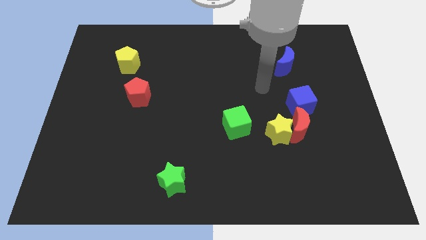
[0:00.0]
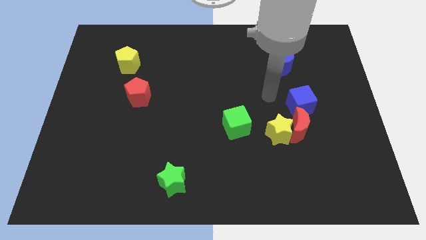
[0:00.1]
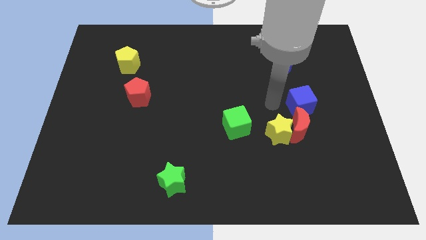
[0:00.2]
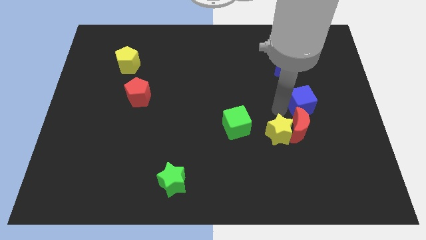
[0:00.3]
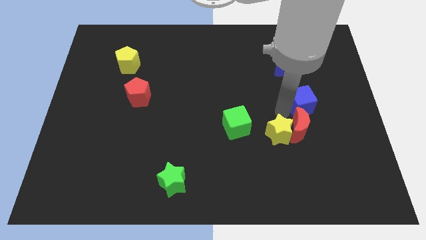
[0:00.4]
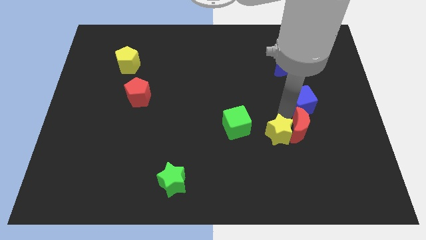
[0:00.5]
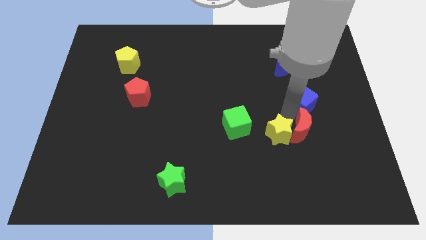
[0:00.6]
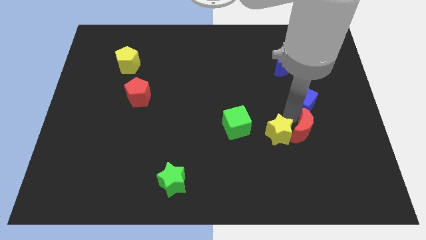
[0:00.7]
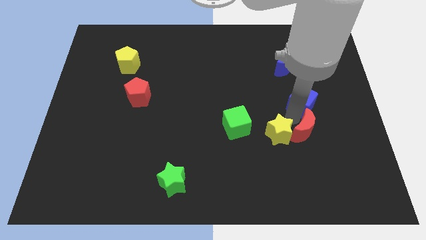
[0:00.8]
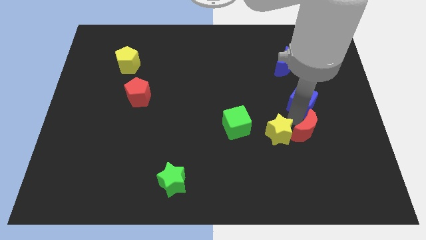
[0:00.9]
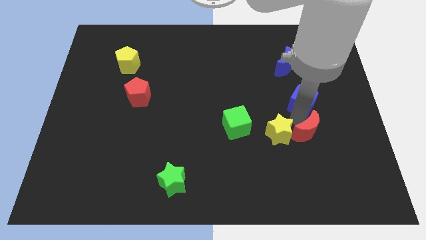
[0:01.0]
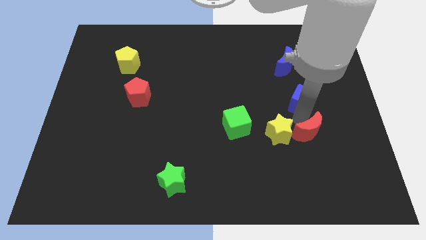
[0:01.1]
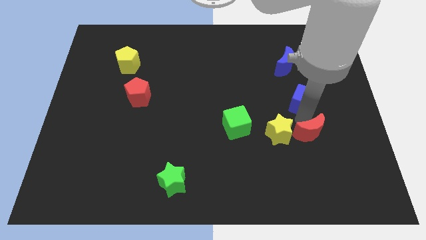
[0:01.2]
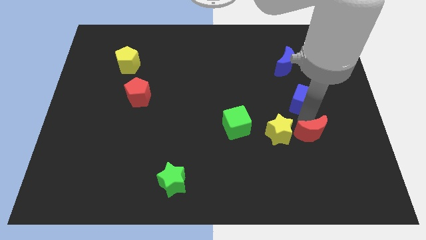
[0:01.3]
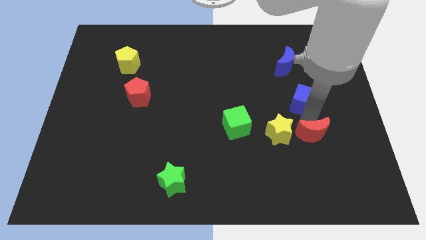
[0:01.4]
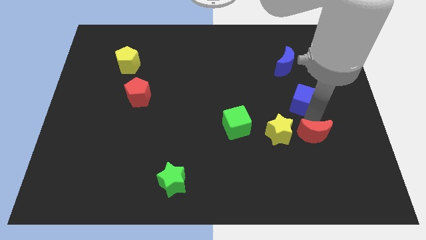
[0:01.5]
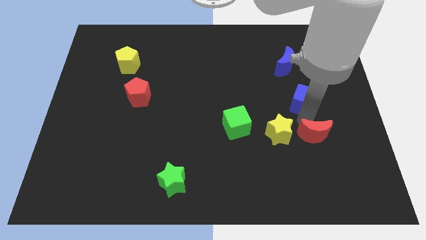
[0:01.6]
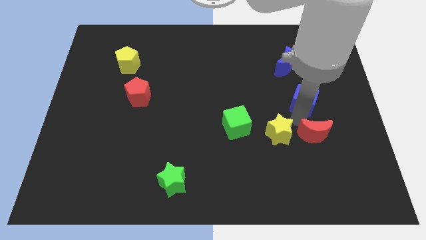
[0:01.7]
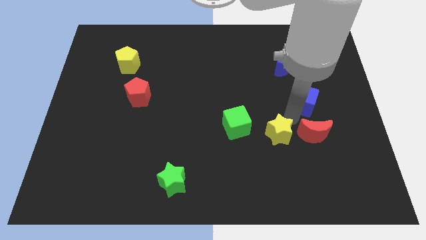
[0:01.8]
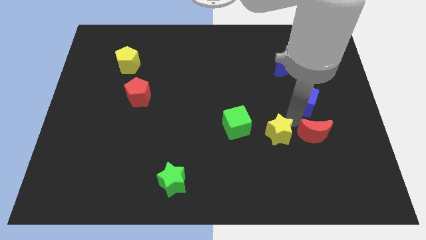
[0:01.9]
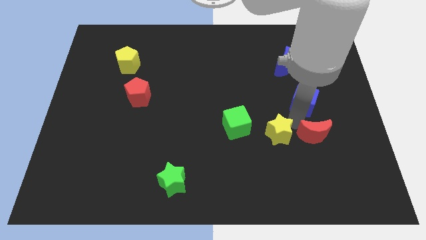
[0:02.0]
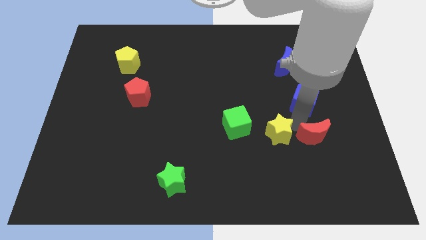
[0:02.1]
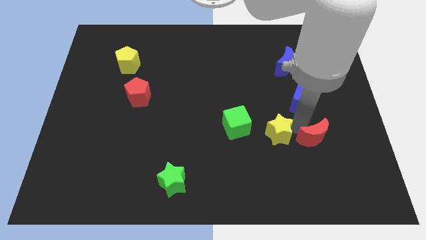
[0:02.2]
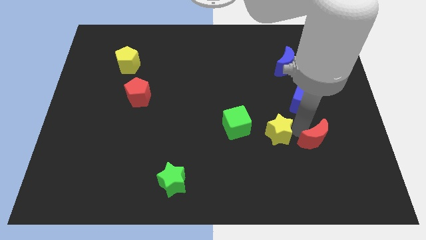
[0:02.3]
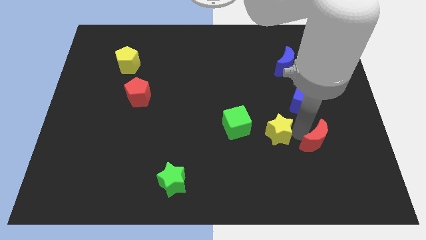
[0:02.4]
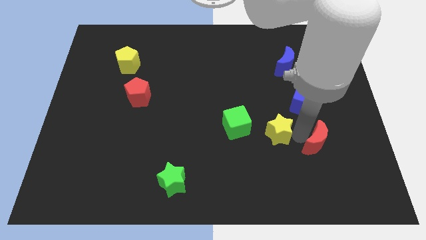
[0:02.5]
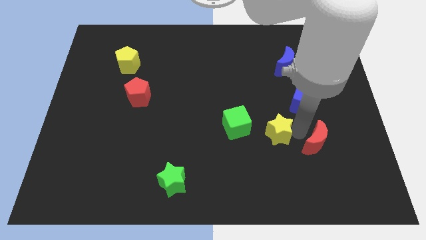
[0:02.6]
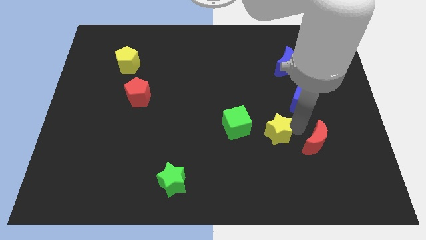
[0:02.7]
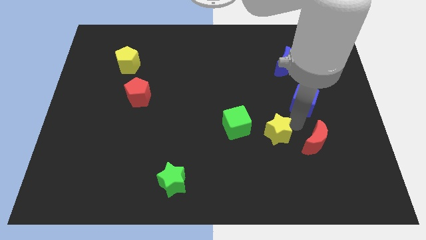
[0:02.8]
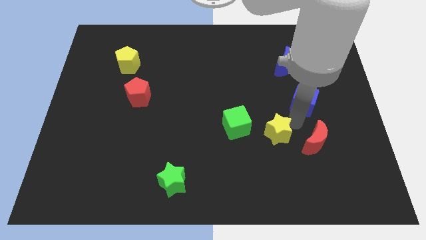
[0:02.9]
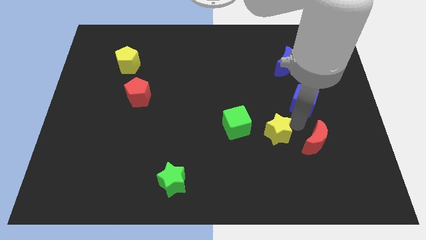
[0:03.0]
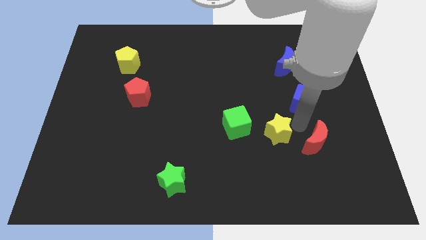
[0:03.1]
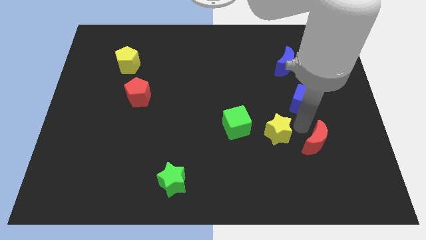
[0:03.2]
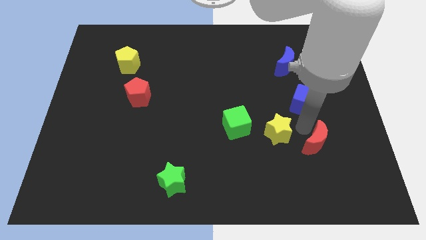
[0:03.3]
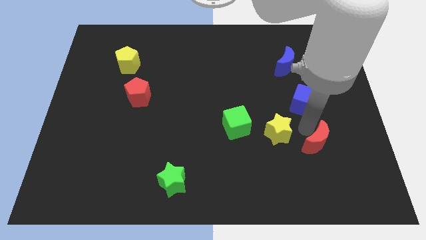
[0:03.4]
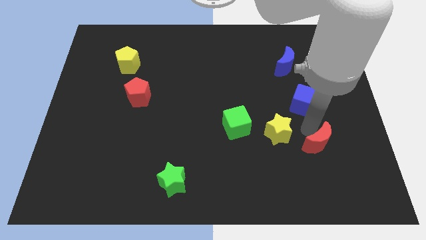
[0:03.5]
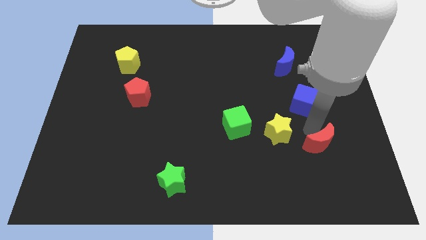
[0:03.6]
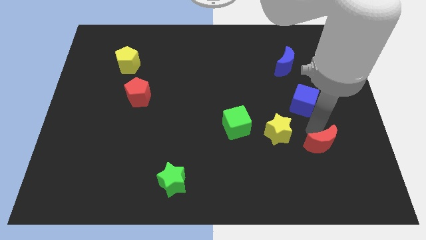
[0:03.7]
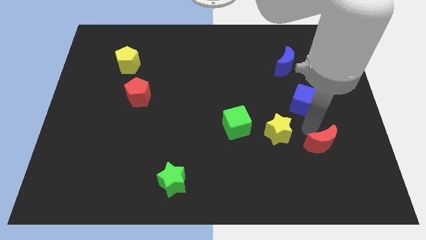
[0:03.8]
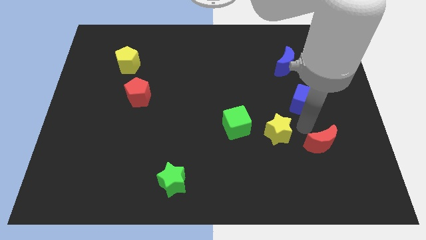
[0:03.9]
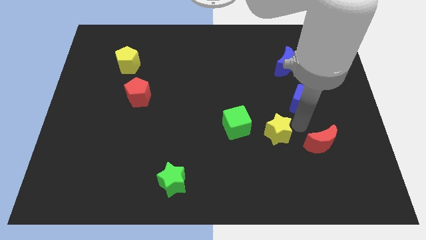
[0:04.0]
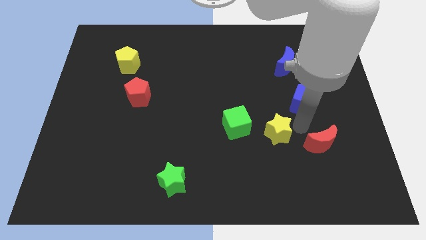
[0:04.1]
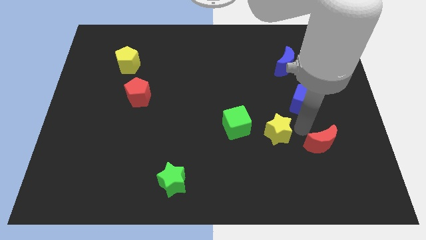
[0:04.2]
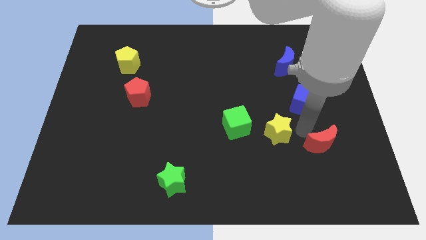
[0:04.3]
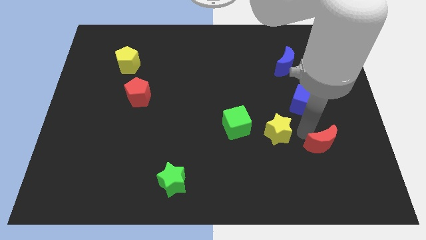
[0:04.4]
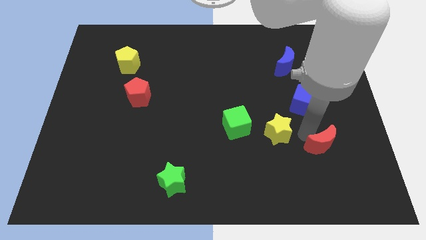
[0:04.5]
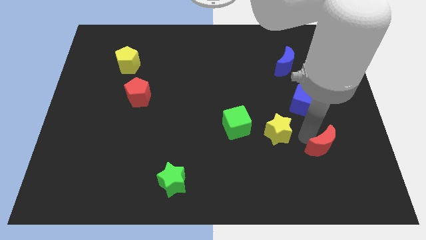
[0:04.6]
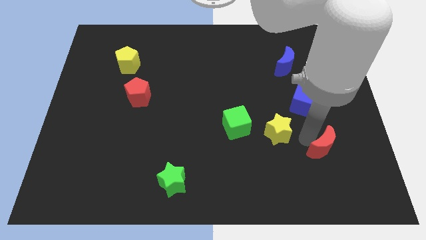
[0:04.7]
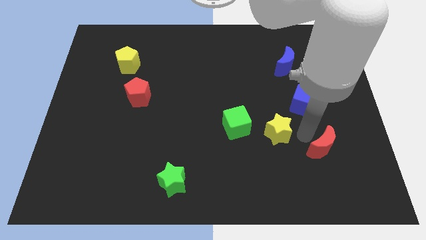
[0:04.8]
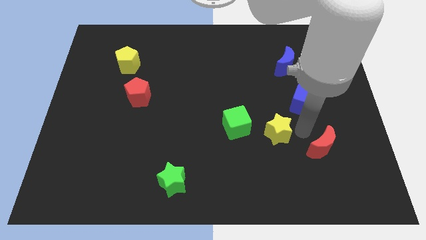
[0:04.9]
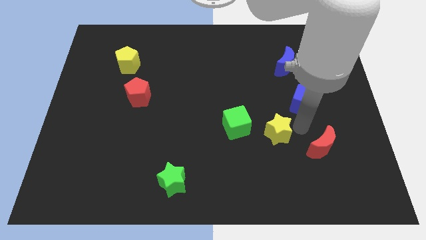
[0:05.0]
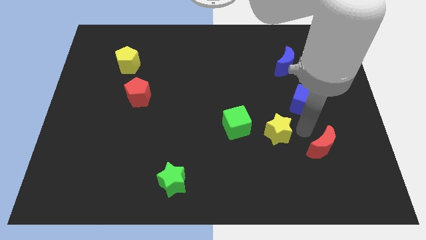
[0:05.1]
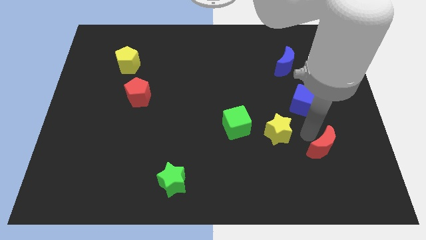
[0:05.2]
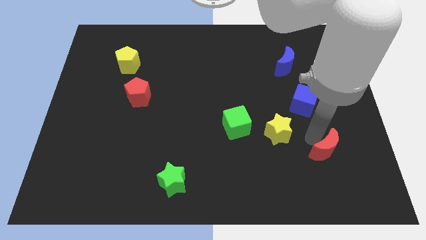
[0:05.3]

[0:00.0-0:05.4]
move the red moon away from the yellow star and blue cube

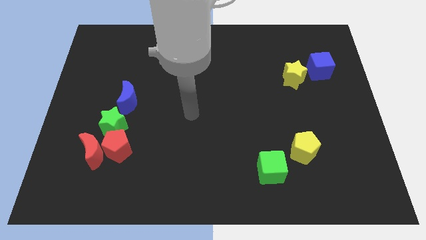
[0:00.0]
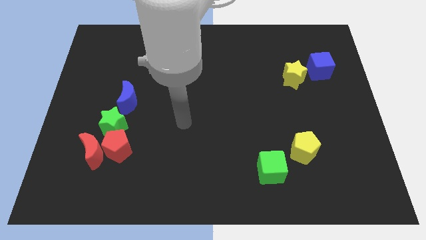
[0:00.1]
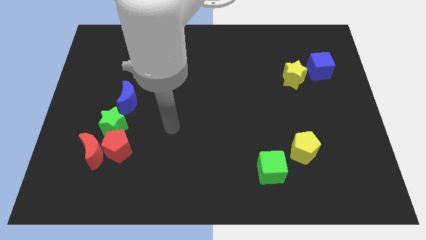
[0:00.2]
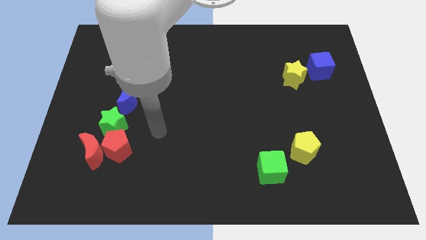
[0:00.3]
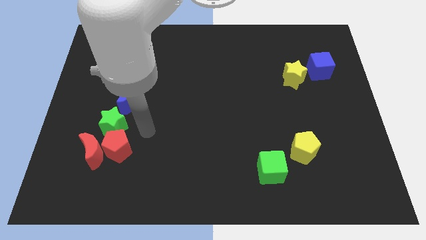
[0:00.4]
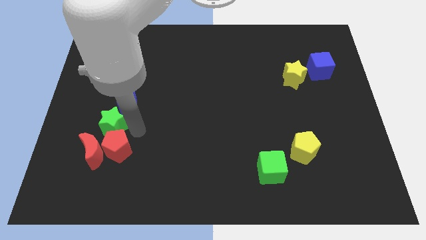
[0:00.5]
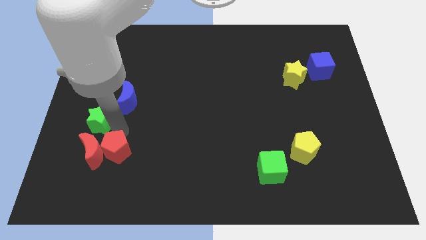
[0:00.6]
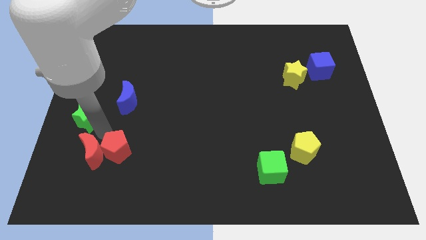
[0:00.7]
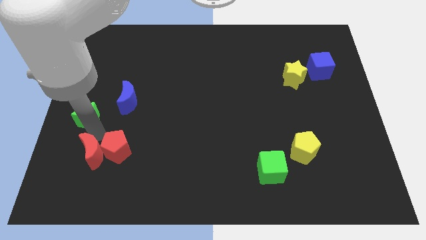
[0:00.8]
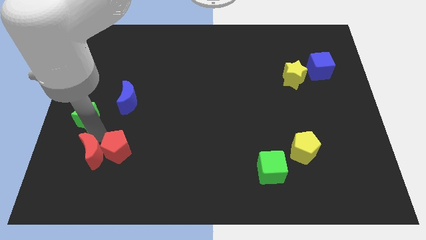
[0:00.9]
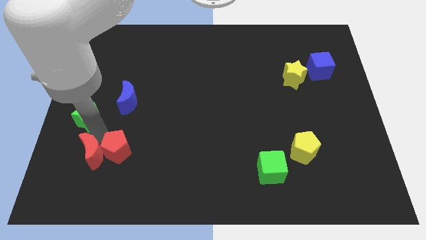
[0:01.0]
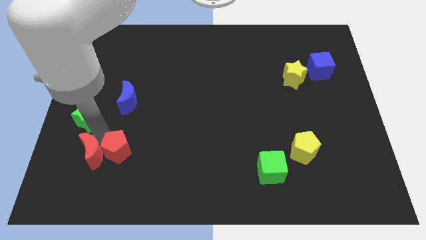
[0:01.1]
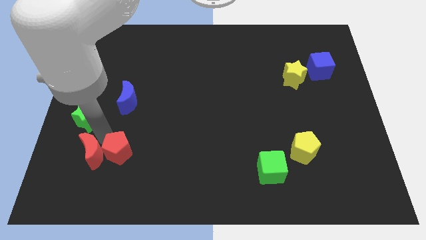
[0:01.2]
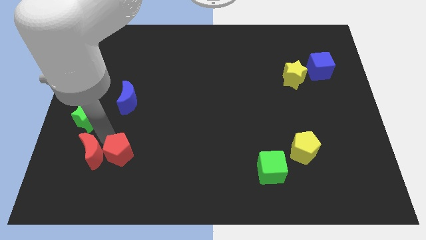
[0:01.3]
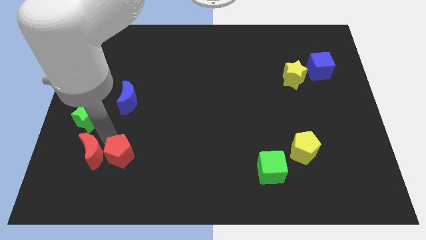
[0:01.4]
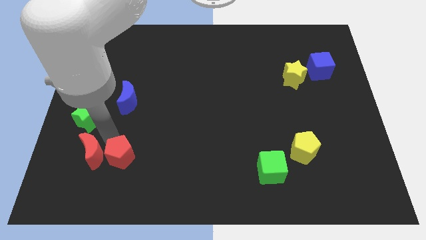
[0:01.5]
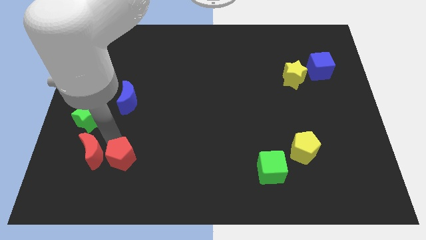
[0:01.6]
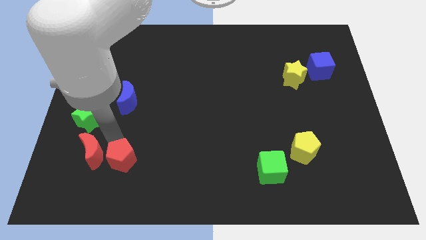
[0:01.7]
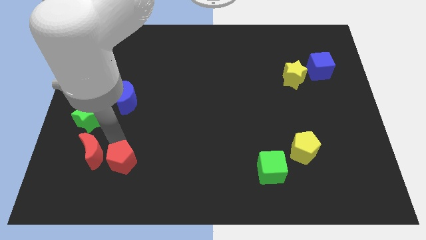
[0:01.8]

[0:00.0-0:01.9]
move the red pentagon away from the red moon and green star

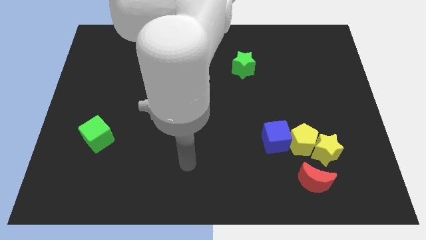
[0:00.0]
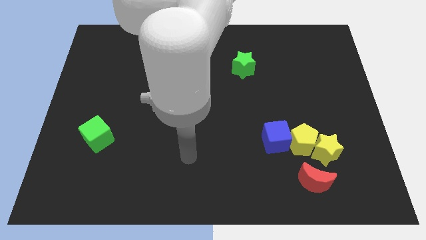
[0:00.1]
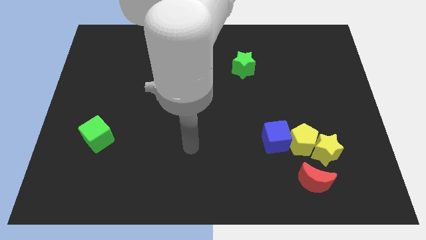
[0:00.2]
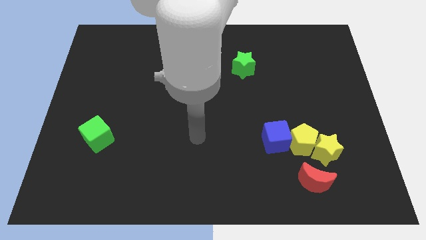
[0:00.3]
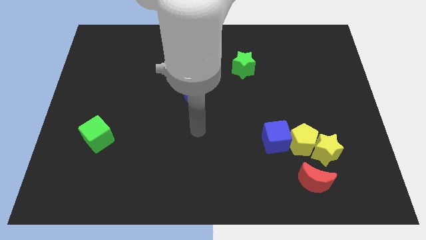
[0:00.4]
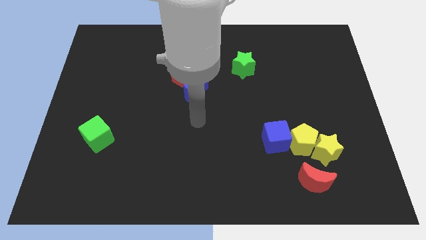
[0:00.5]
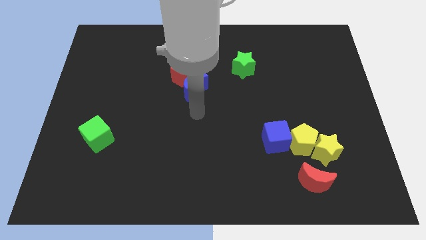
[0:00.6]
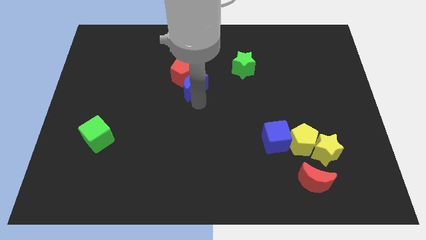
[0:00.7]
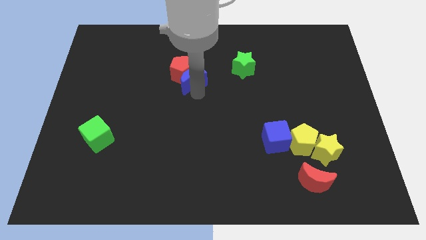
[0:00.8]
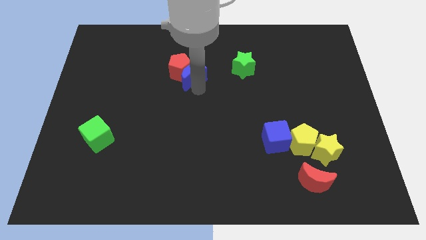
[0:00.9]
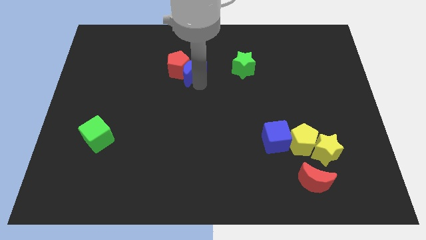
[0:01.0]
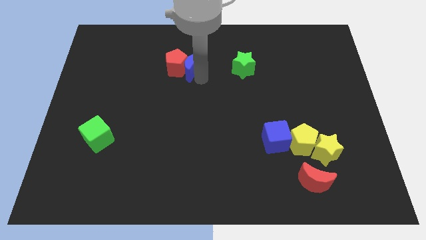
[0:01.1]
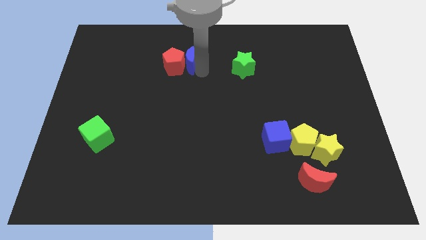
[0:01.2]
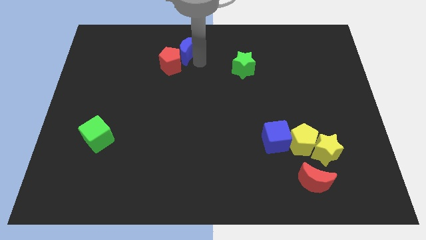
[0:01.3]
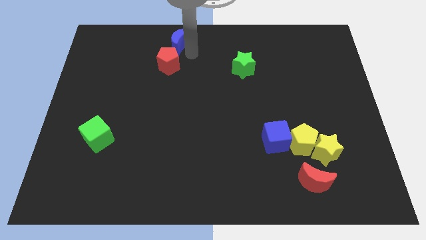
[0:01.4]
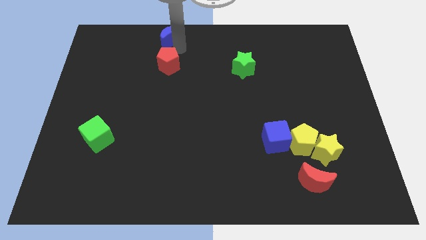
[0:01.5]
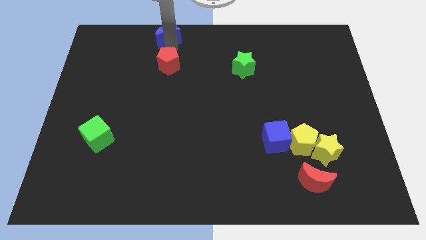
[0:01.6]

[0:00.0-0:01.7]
separate the red pentagon from the blue moon

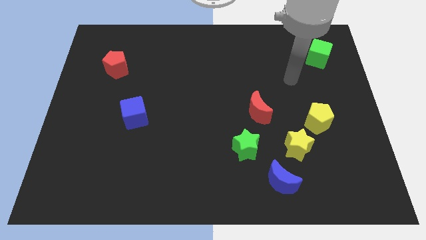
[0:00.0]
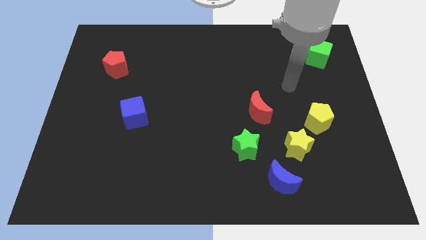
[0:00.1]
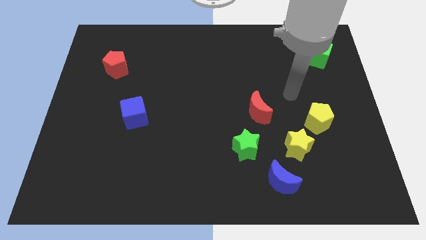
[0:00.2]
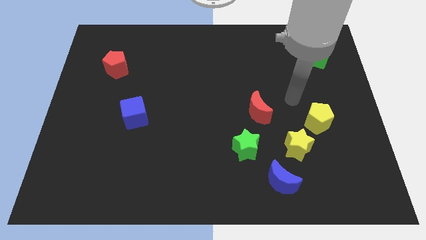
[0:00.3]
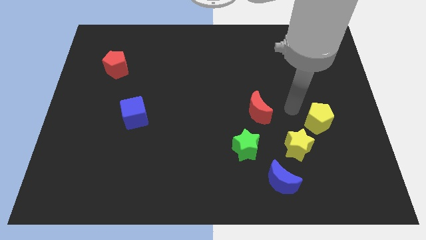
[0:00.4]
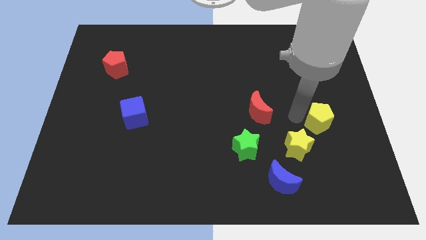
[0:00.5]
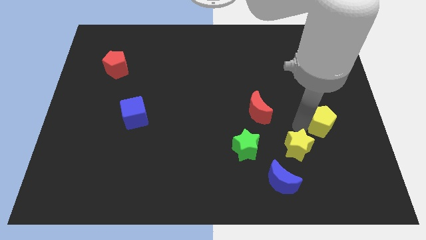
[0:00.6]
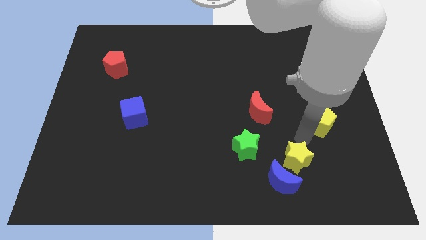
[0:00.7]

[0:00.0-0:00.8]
move the yellow pentagon away from the yellow star
